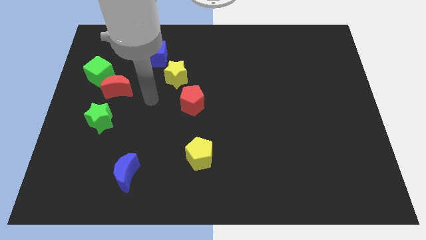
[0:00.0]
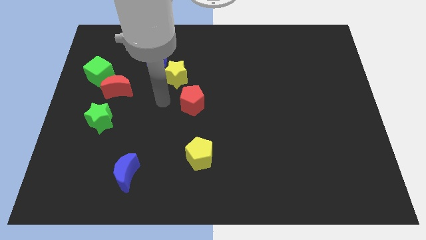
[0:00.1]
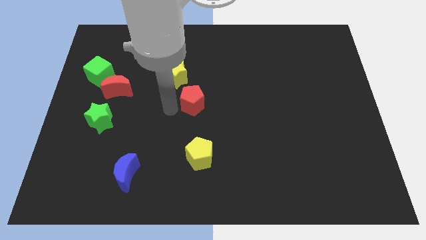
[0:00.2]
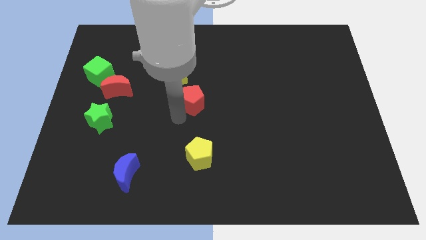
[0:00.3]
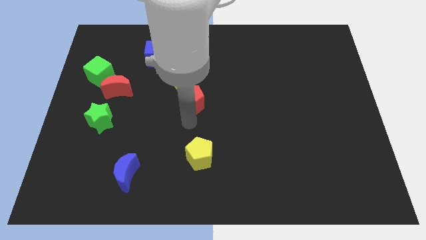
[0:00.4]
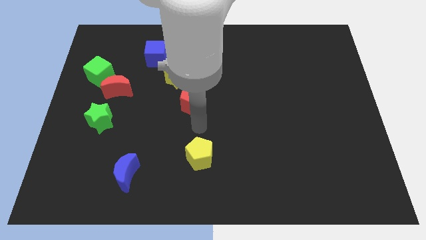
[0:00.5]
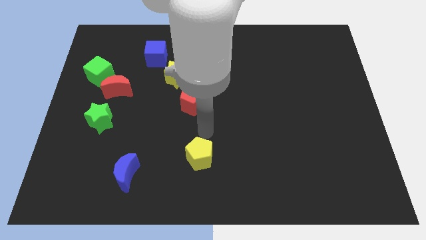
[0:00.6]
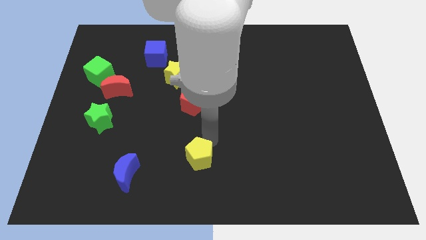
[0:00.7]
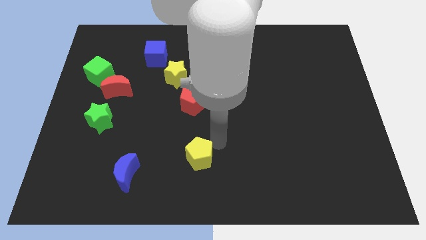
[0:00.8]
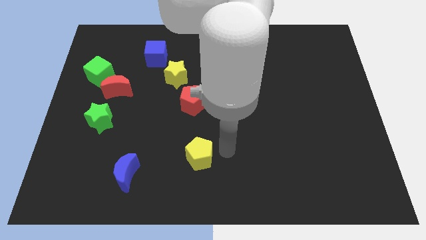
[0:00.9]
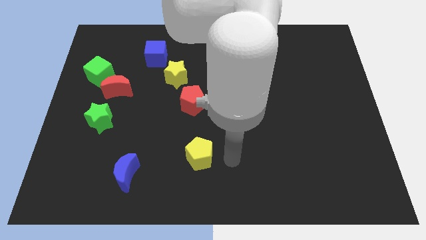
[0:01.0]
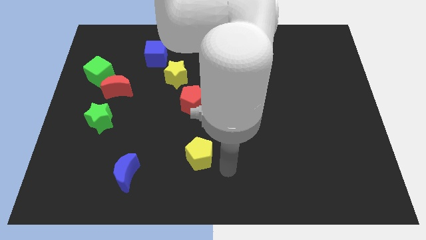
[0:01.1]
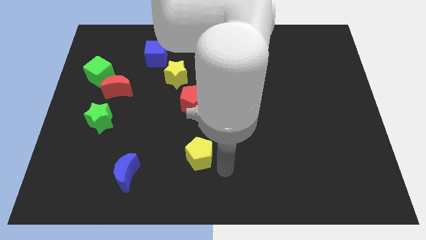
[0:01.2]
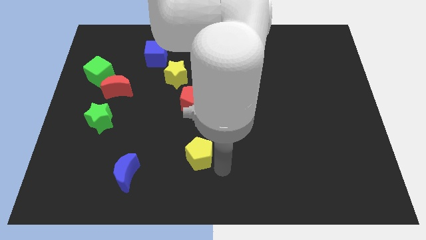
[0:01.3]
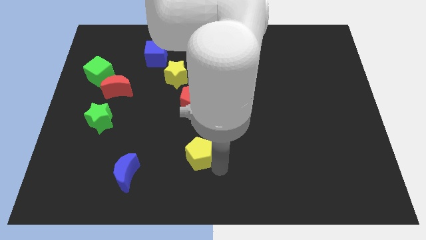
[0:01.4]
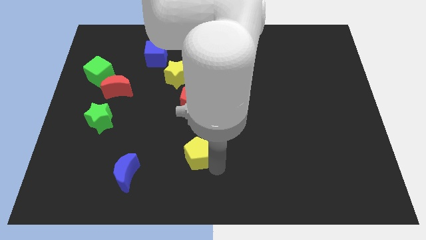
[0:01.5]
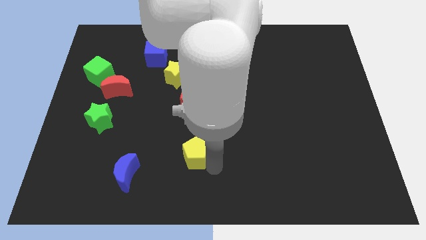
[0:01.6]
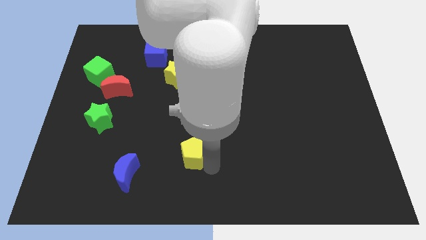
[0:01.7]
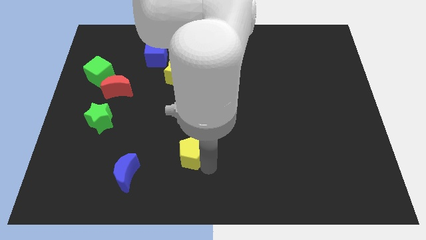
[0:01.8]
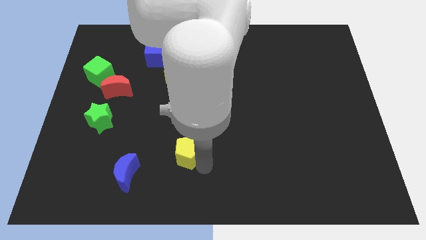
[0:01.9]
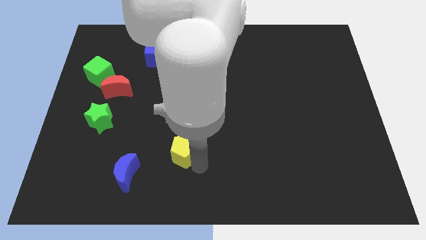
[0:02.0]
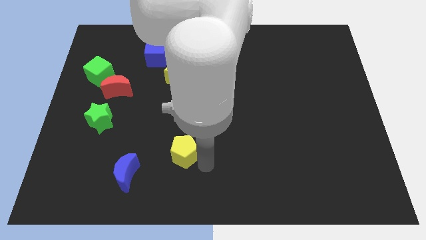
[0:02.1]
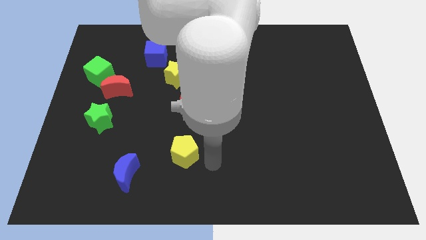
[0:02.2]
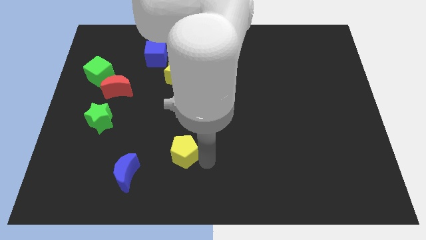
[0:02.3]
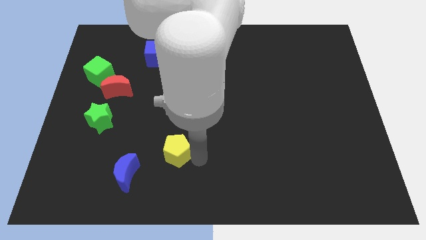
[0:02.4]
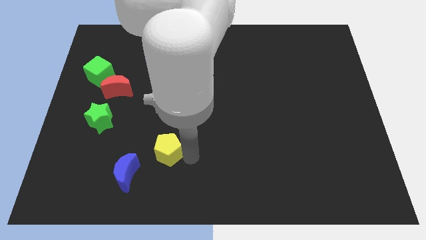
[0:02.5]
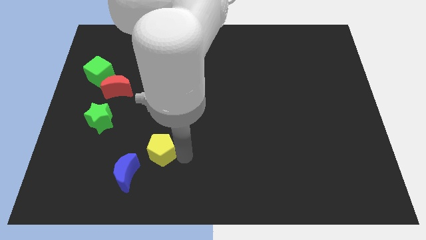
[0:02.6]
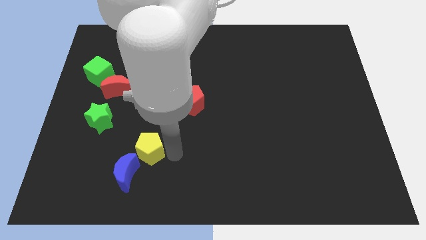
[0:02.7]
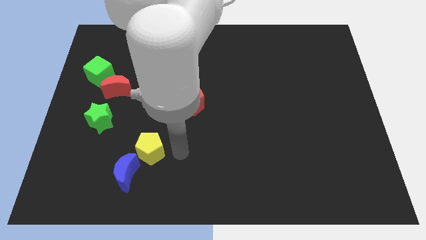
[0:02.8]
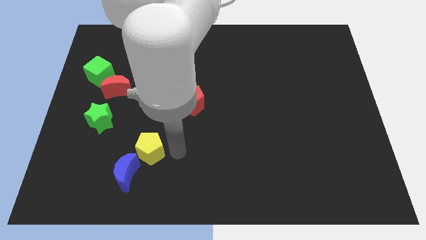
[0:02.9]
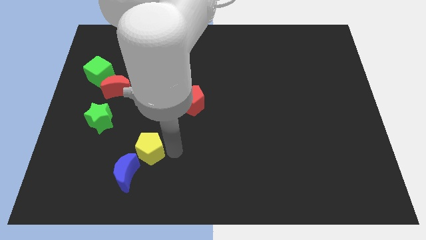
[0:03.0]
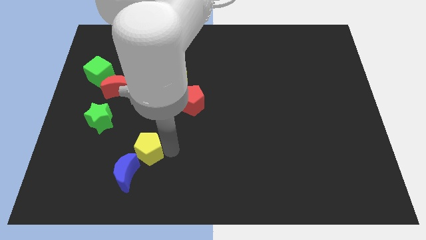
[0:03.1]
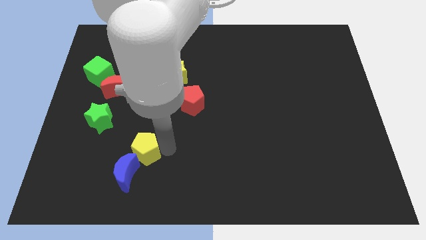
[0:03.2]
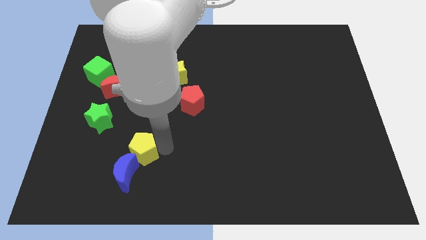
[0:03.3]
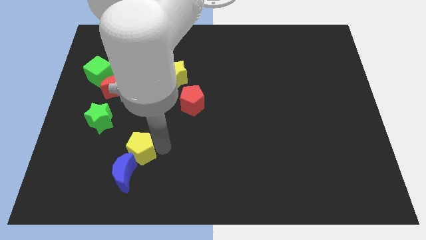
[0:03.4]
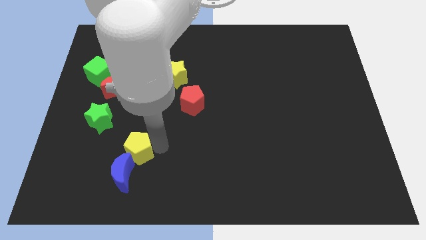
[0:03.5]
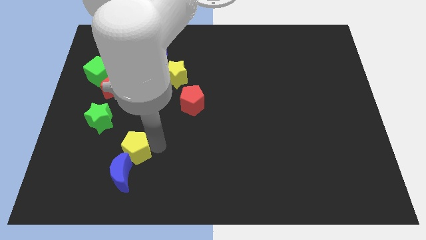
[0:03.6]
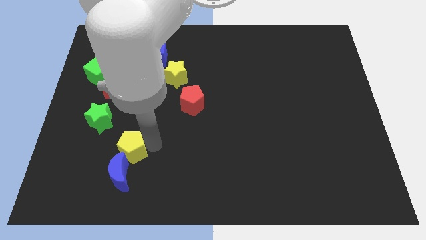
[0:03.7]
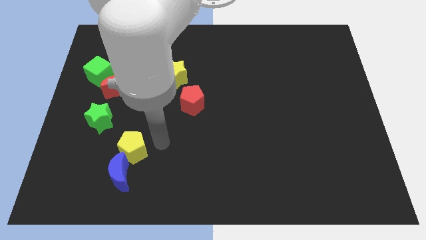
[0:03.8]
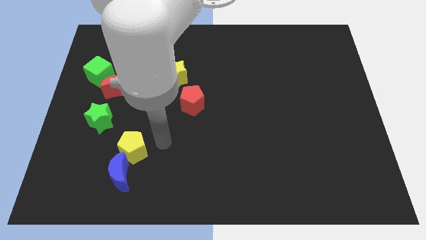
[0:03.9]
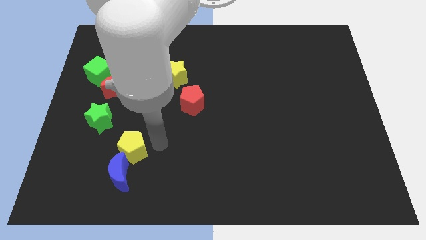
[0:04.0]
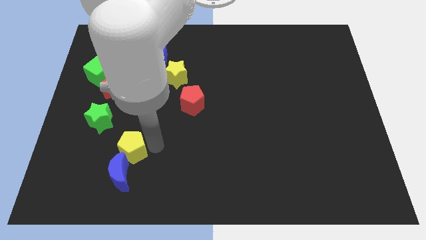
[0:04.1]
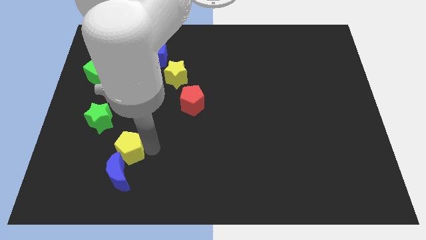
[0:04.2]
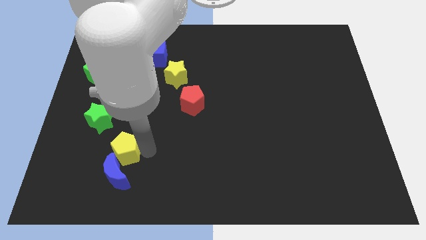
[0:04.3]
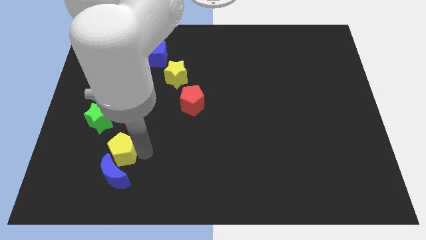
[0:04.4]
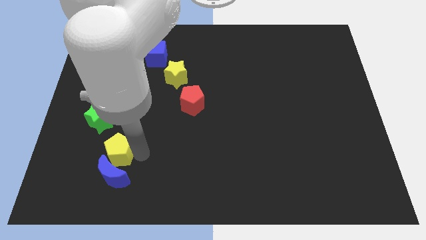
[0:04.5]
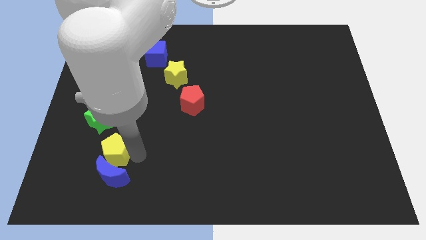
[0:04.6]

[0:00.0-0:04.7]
put the yellow pentagon to the bottom side of the green star

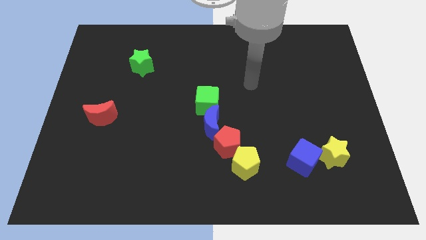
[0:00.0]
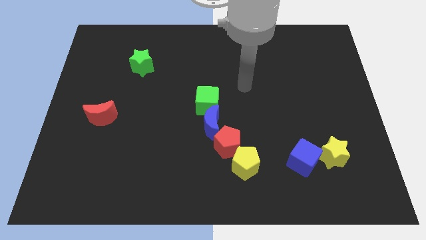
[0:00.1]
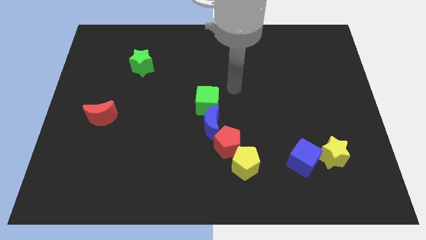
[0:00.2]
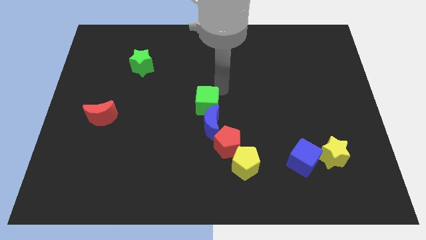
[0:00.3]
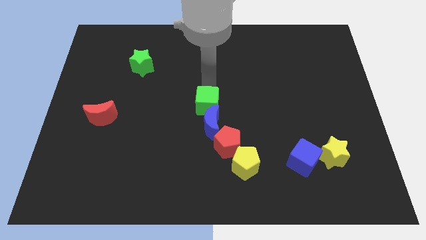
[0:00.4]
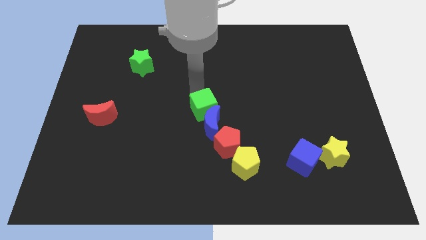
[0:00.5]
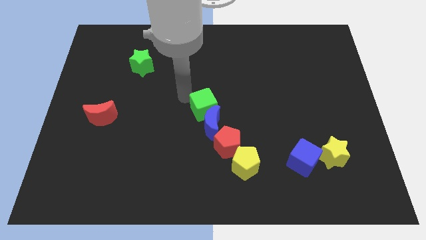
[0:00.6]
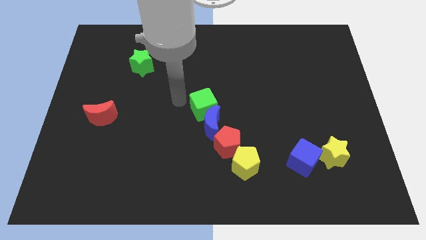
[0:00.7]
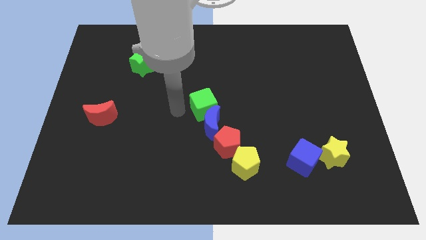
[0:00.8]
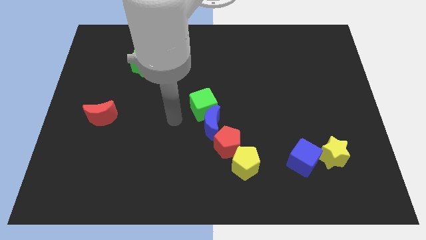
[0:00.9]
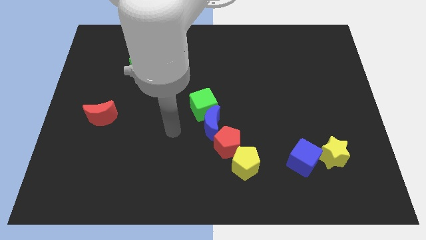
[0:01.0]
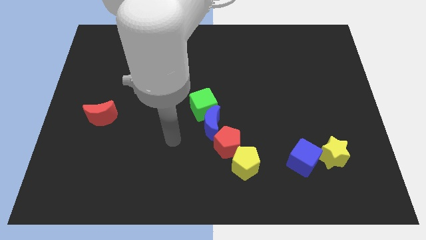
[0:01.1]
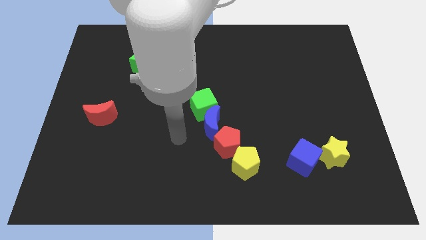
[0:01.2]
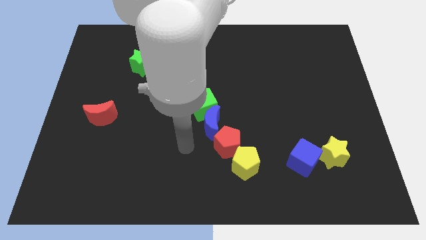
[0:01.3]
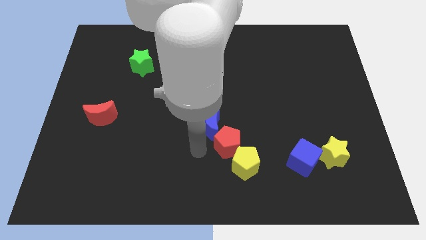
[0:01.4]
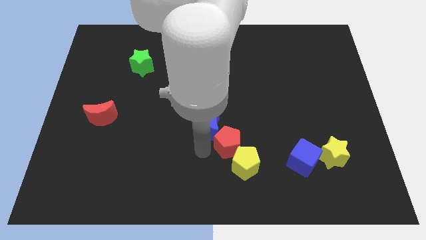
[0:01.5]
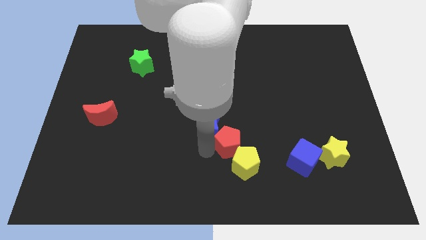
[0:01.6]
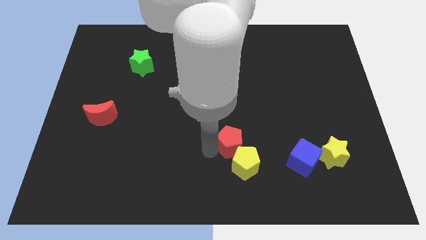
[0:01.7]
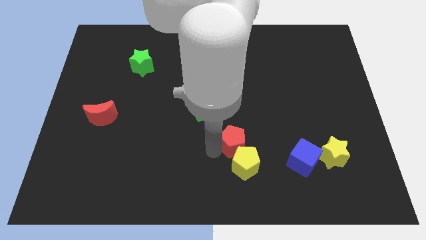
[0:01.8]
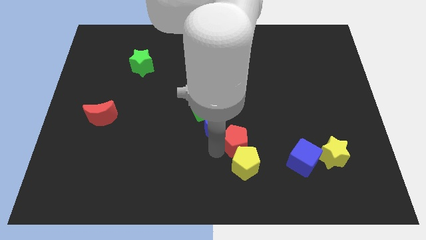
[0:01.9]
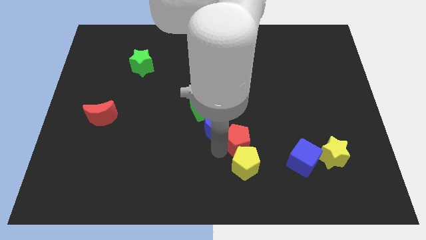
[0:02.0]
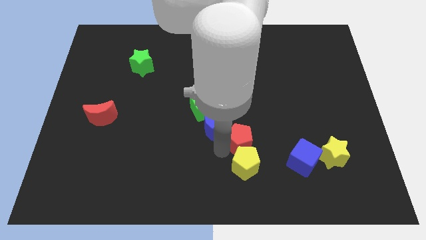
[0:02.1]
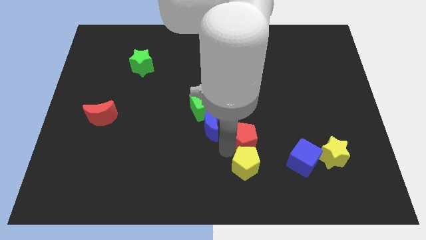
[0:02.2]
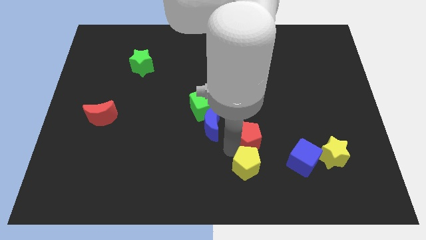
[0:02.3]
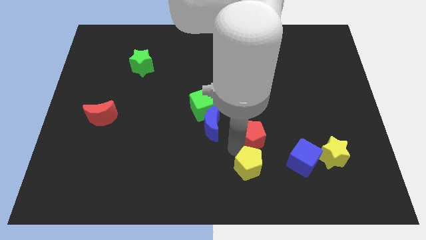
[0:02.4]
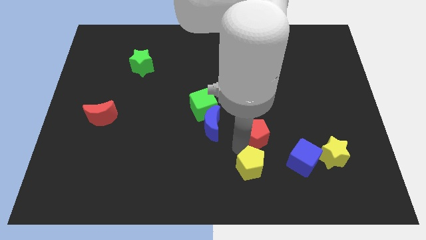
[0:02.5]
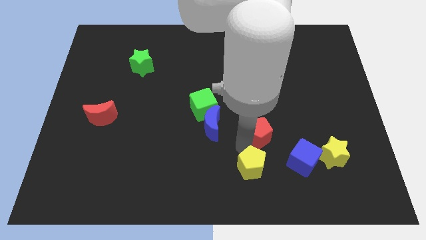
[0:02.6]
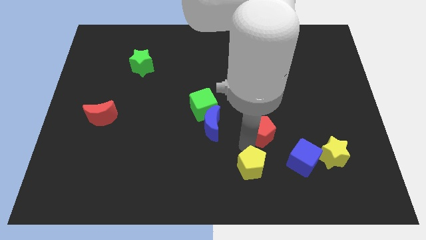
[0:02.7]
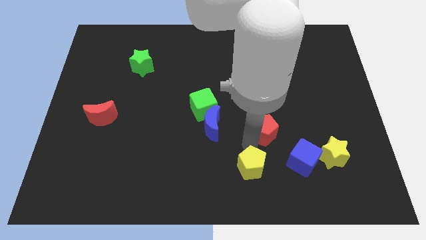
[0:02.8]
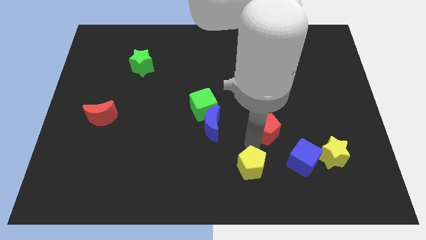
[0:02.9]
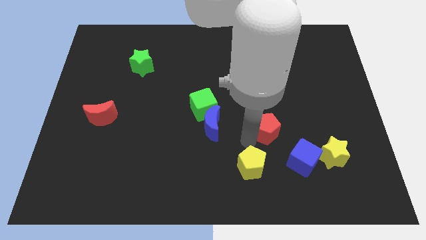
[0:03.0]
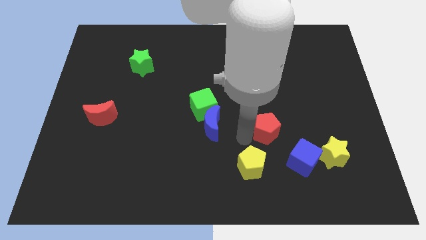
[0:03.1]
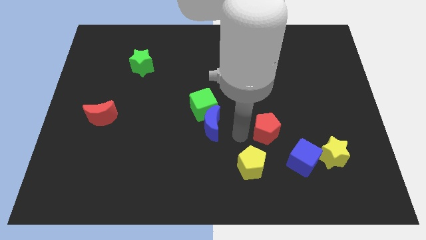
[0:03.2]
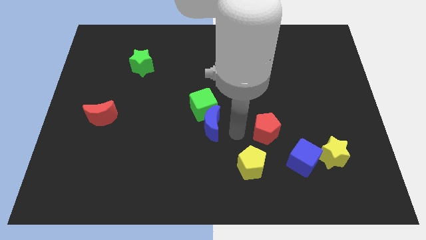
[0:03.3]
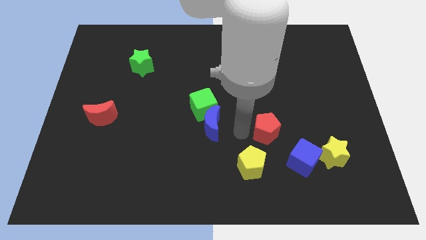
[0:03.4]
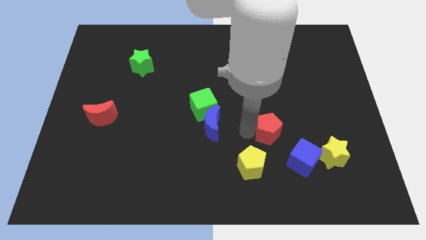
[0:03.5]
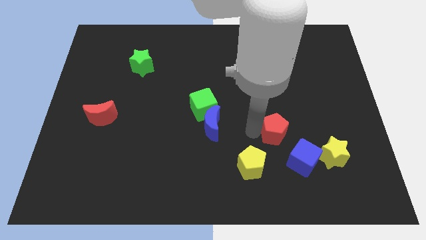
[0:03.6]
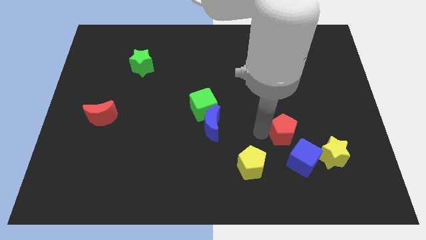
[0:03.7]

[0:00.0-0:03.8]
put the red pentagon to the top of the blue cube
